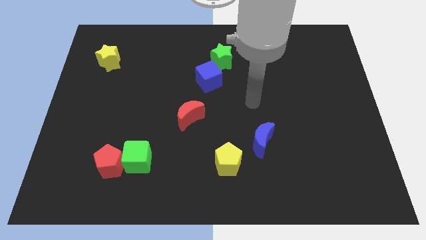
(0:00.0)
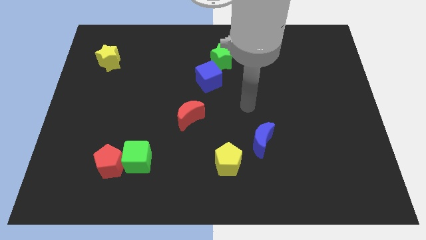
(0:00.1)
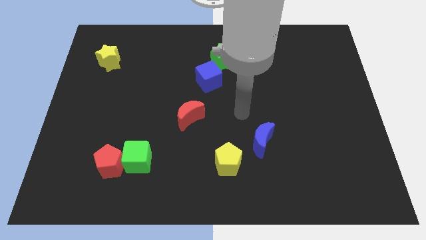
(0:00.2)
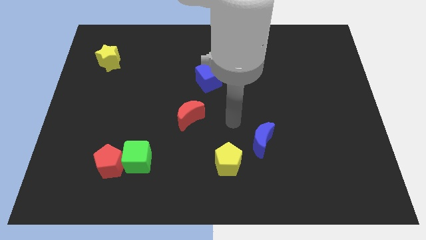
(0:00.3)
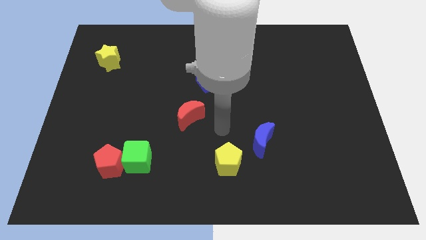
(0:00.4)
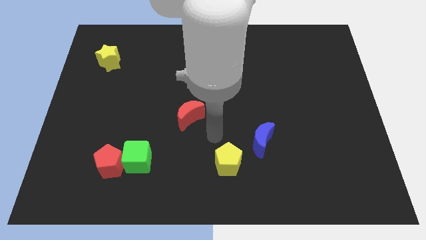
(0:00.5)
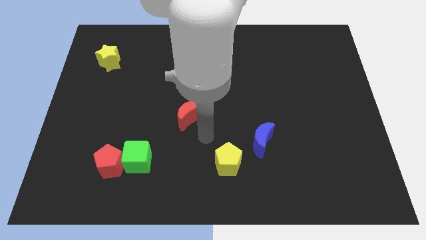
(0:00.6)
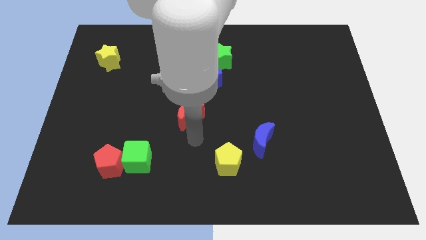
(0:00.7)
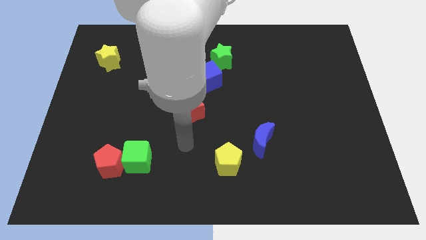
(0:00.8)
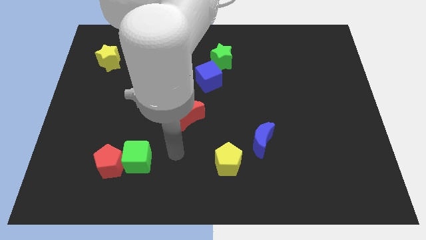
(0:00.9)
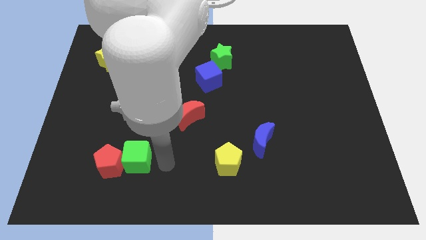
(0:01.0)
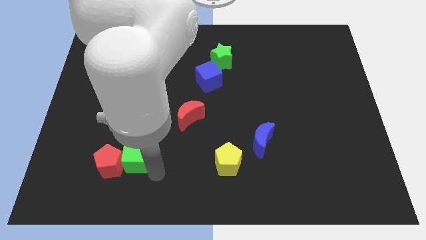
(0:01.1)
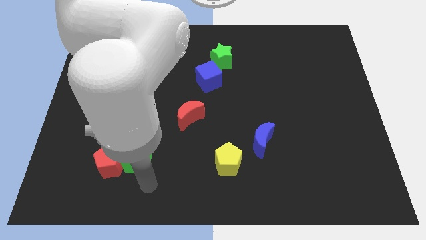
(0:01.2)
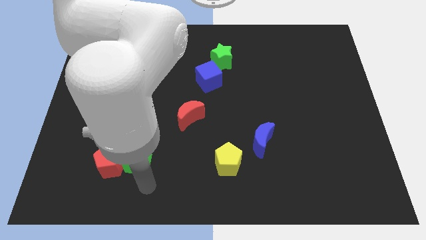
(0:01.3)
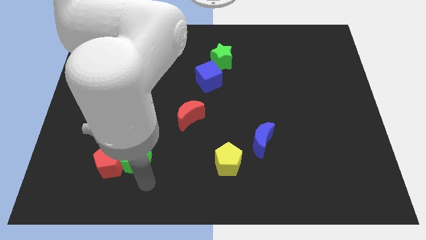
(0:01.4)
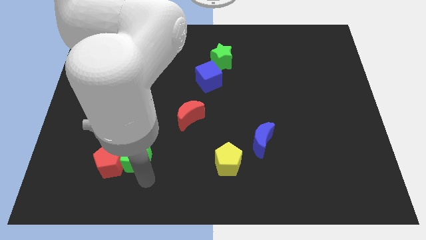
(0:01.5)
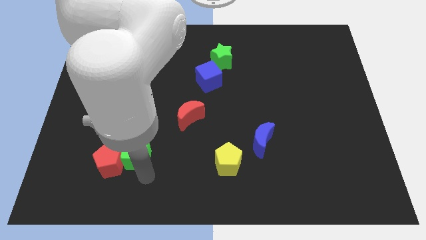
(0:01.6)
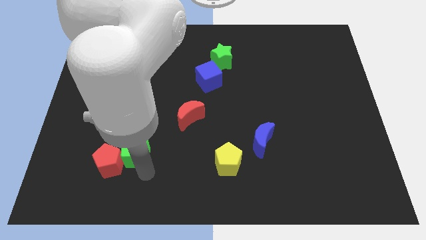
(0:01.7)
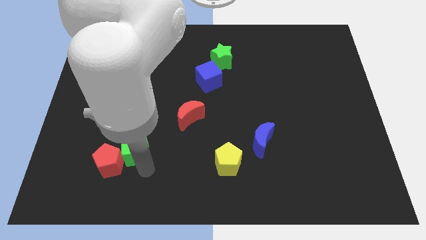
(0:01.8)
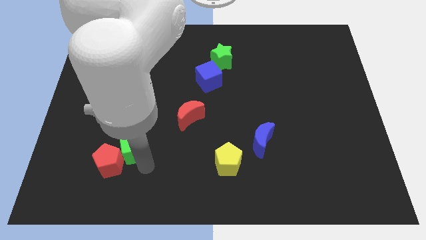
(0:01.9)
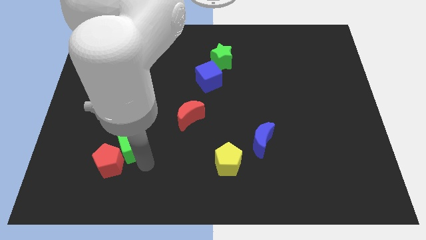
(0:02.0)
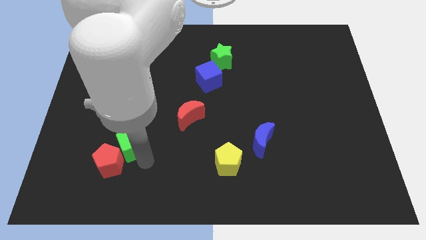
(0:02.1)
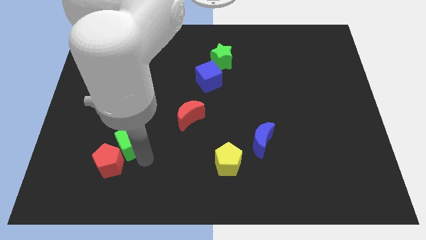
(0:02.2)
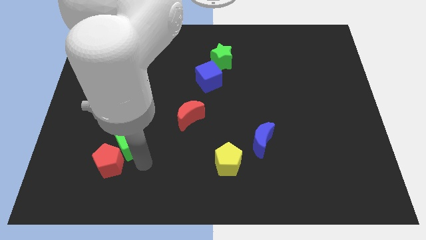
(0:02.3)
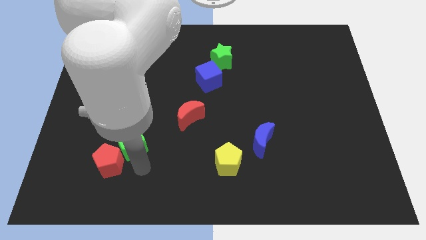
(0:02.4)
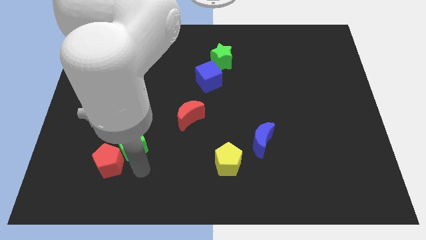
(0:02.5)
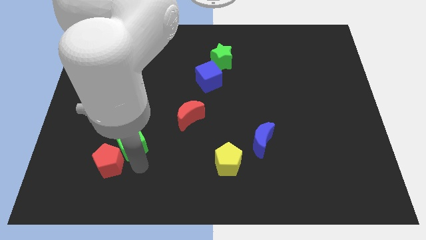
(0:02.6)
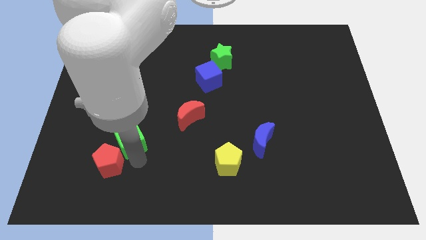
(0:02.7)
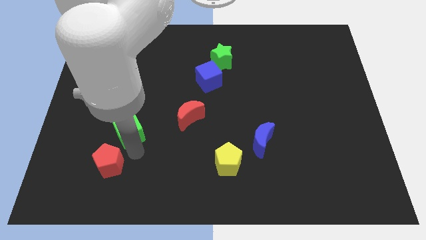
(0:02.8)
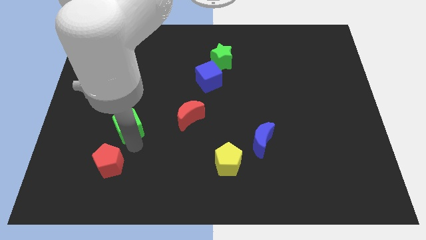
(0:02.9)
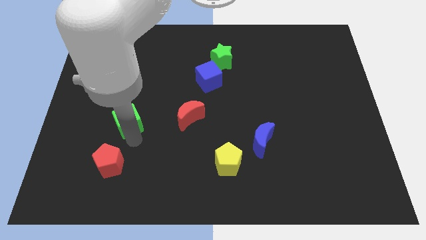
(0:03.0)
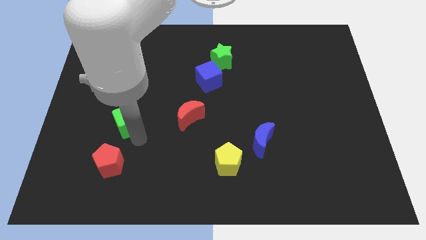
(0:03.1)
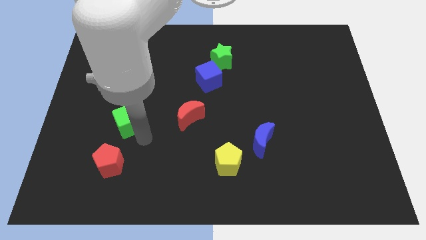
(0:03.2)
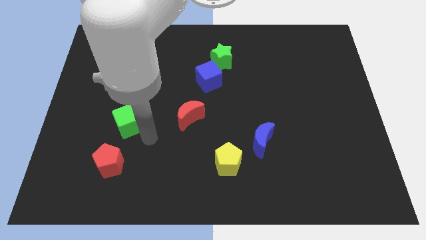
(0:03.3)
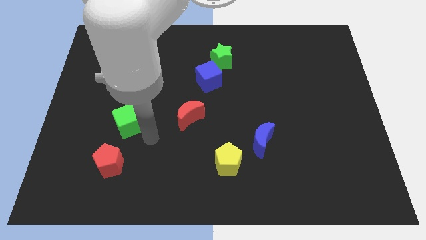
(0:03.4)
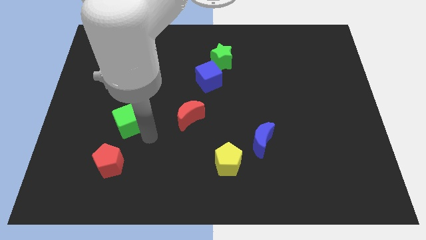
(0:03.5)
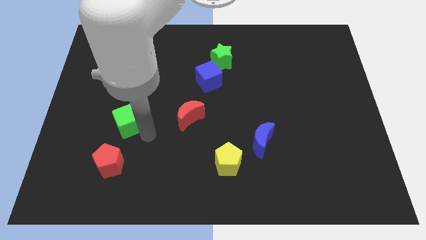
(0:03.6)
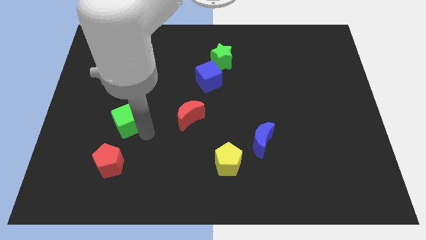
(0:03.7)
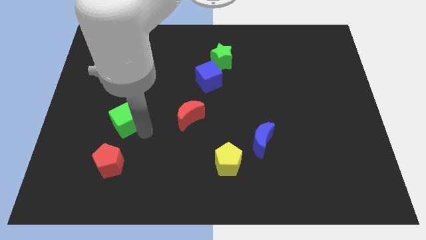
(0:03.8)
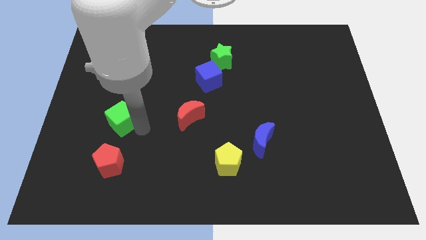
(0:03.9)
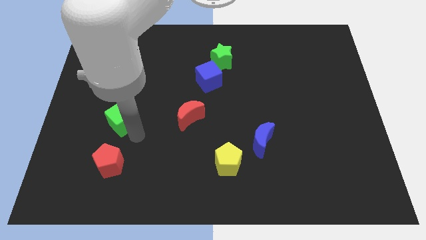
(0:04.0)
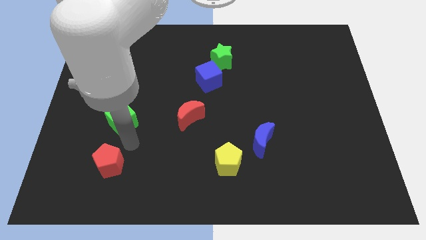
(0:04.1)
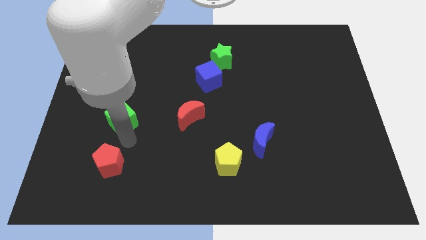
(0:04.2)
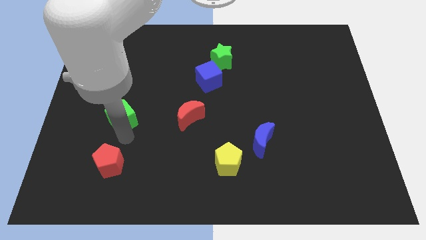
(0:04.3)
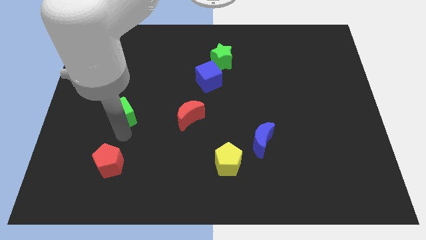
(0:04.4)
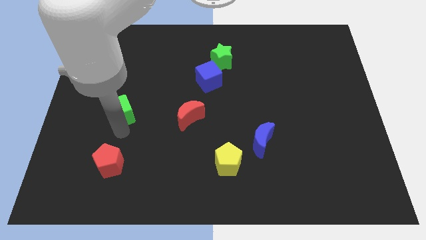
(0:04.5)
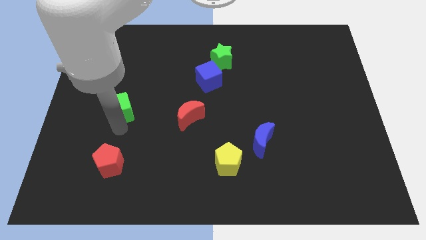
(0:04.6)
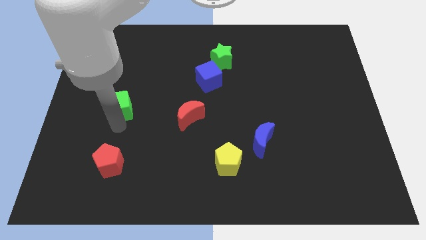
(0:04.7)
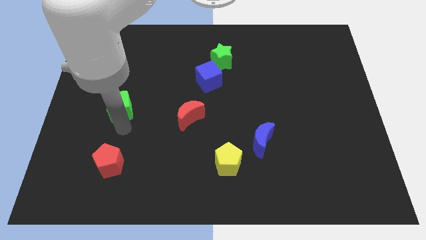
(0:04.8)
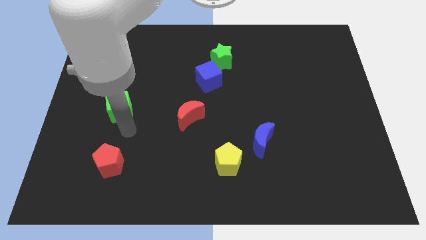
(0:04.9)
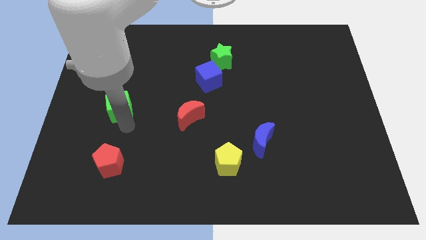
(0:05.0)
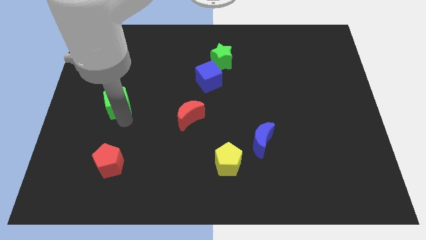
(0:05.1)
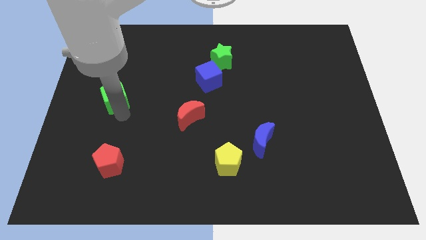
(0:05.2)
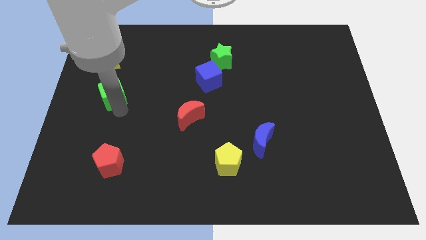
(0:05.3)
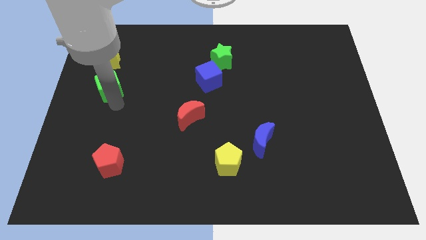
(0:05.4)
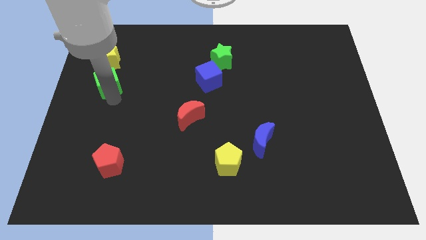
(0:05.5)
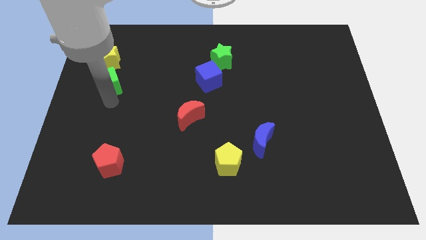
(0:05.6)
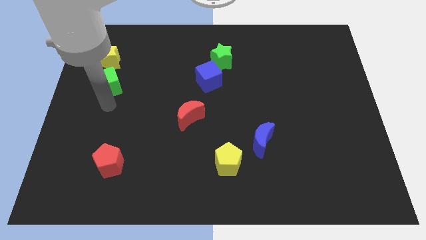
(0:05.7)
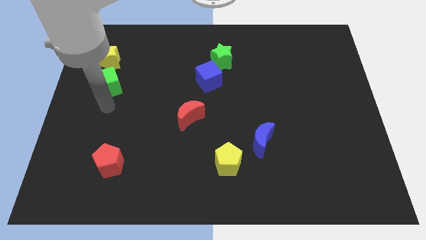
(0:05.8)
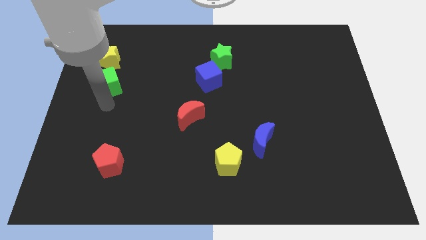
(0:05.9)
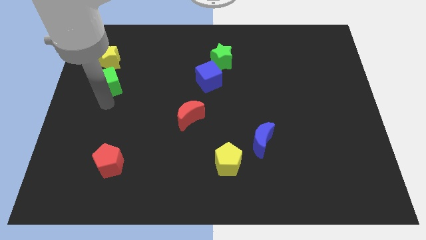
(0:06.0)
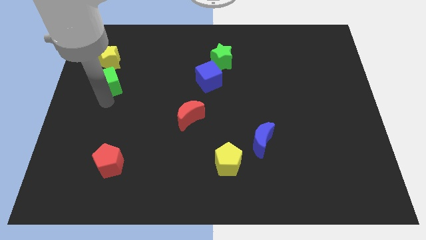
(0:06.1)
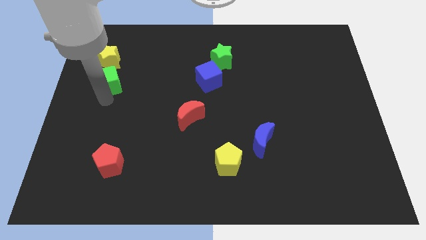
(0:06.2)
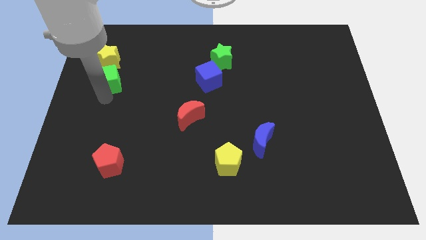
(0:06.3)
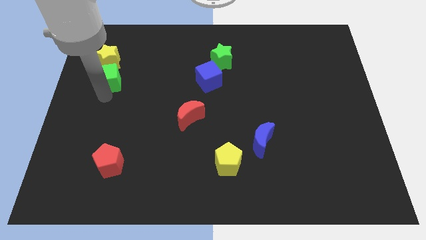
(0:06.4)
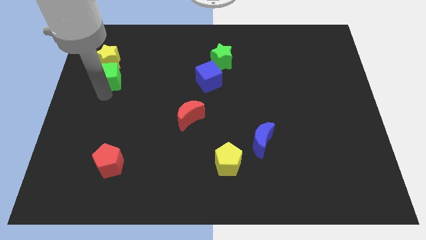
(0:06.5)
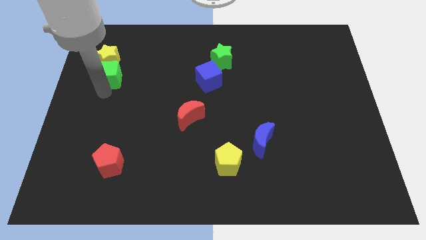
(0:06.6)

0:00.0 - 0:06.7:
move the green cube towards the yellow star

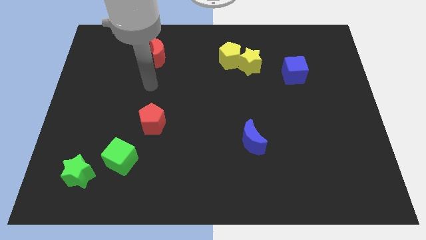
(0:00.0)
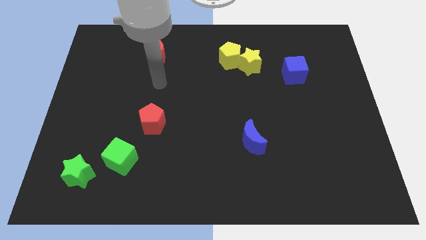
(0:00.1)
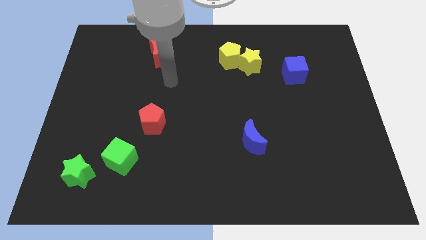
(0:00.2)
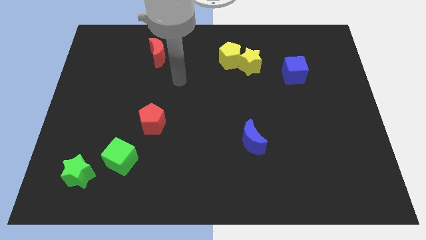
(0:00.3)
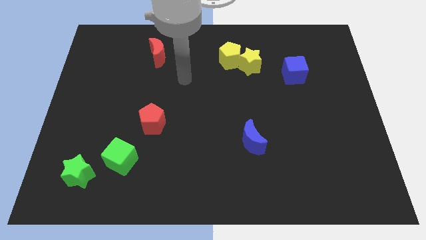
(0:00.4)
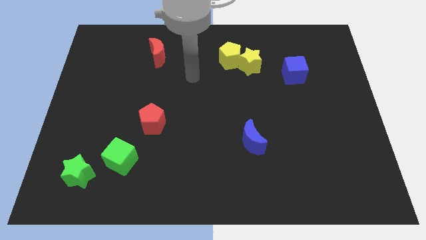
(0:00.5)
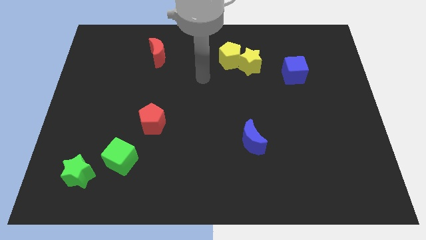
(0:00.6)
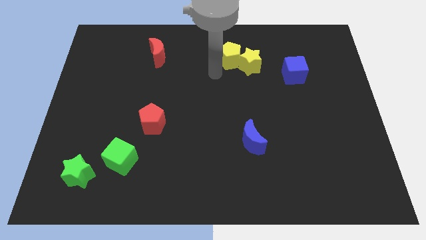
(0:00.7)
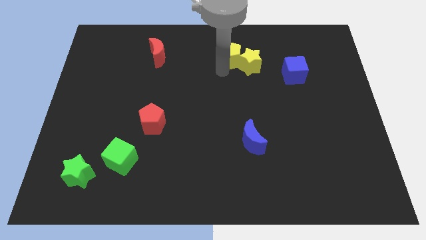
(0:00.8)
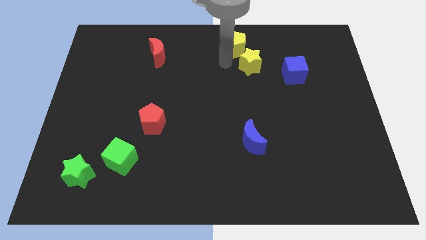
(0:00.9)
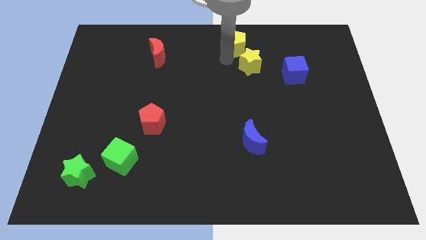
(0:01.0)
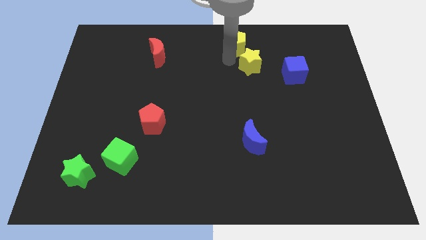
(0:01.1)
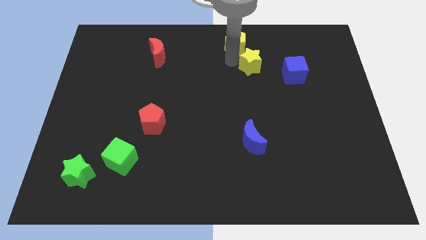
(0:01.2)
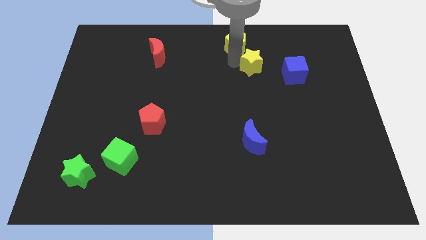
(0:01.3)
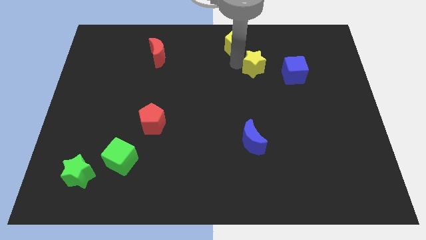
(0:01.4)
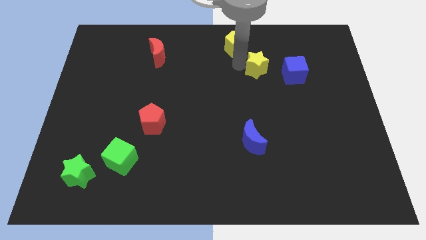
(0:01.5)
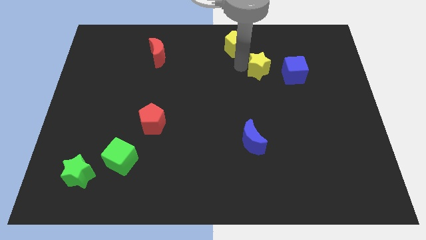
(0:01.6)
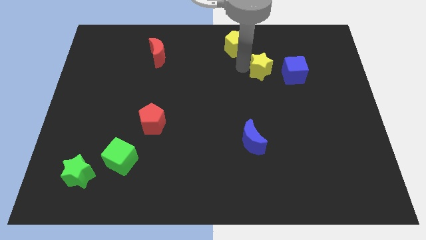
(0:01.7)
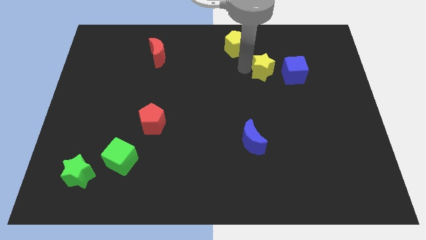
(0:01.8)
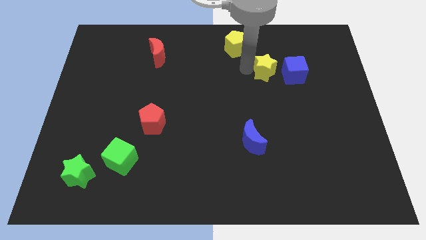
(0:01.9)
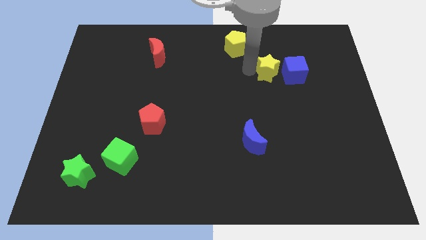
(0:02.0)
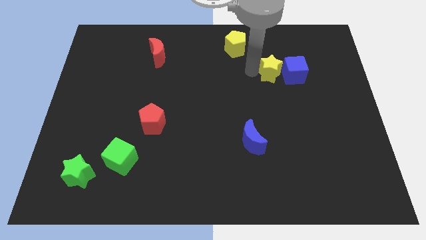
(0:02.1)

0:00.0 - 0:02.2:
move the yellow star next to the blue cube
